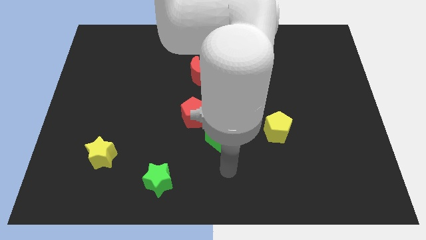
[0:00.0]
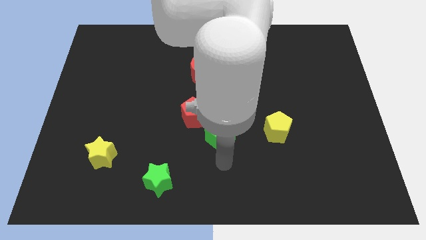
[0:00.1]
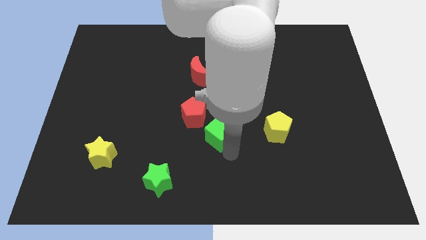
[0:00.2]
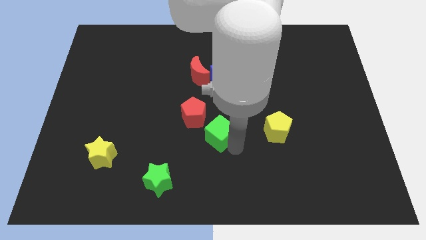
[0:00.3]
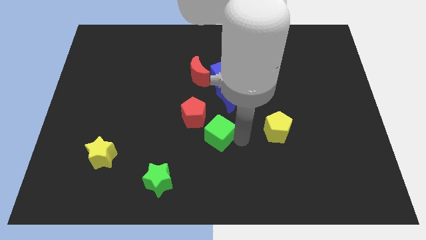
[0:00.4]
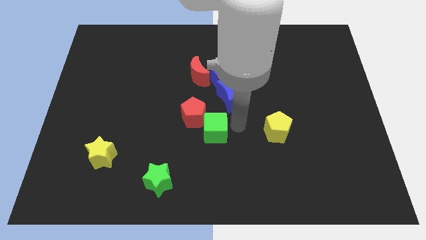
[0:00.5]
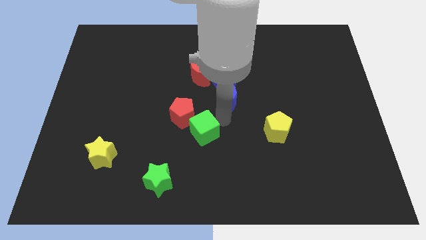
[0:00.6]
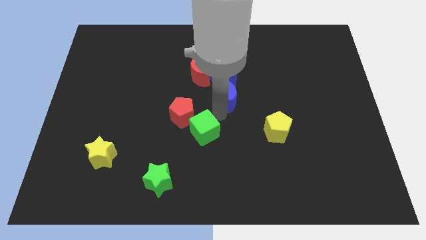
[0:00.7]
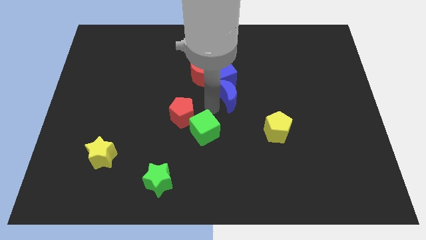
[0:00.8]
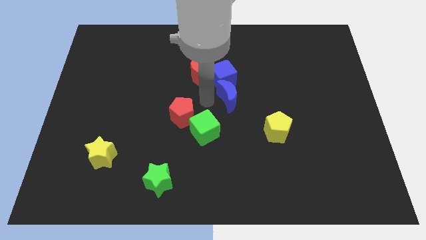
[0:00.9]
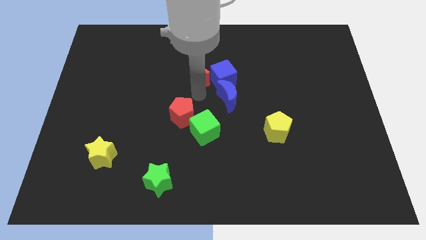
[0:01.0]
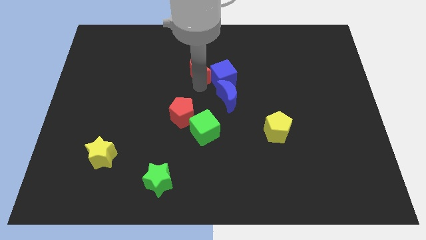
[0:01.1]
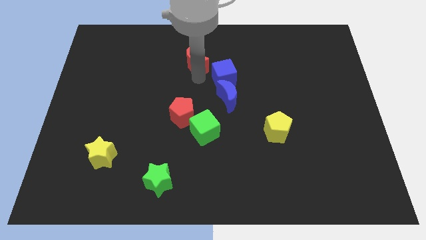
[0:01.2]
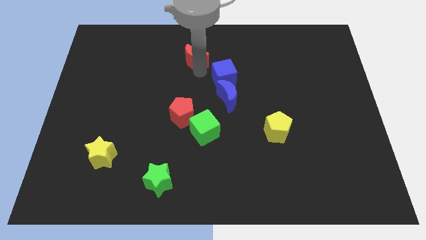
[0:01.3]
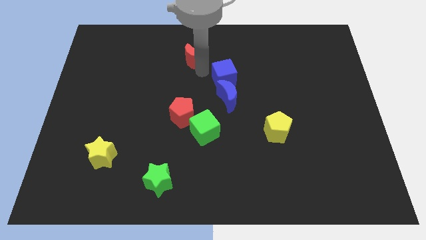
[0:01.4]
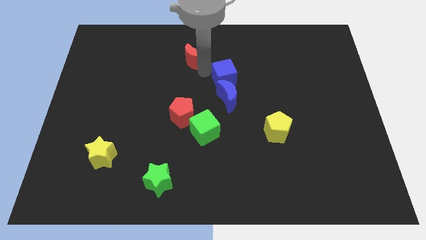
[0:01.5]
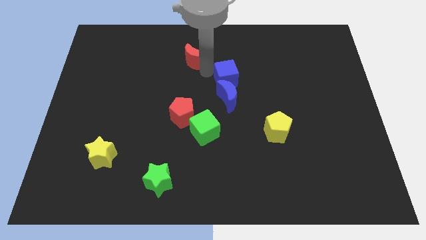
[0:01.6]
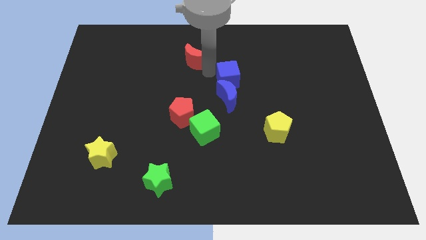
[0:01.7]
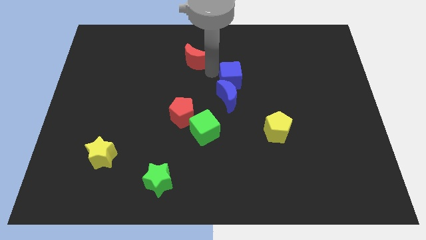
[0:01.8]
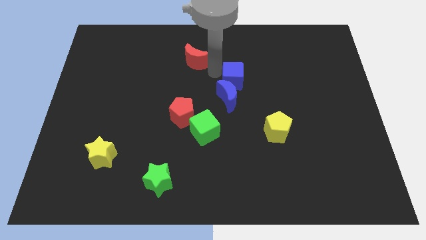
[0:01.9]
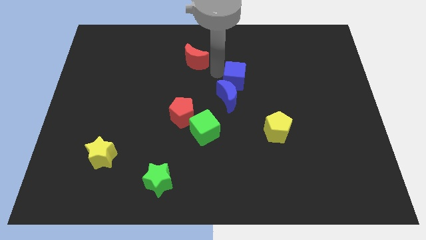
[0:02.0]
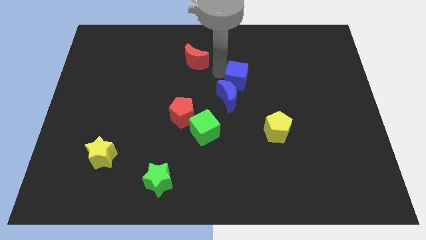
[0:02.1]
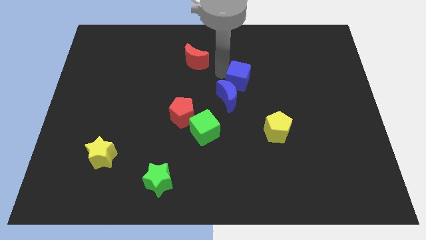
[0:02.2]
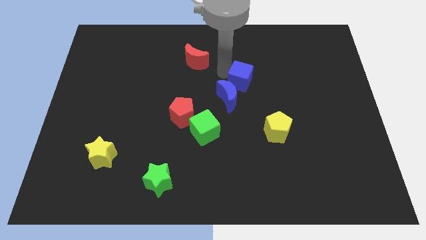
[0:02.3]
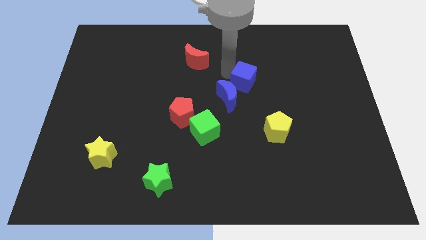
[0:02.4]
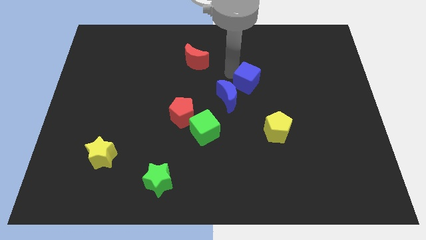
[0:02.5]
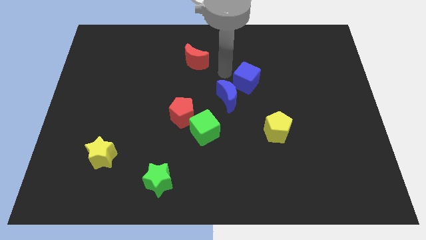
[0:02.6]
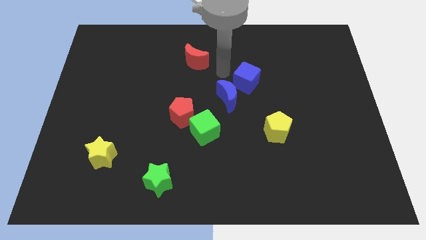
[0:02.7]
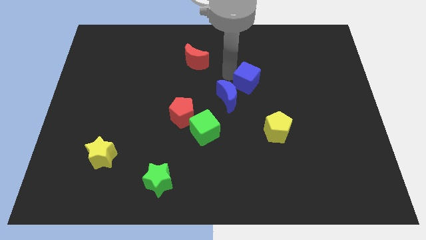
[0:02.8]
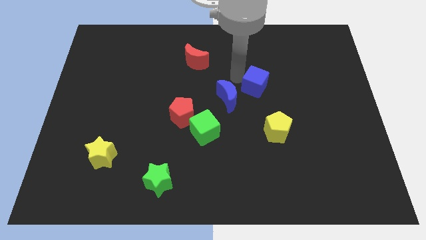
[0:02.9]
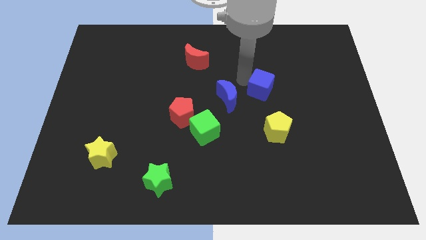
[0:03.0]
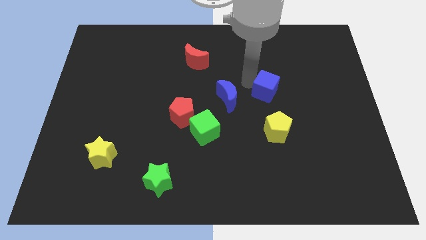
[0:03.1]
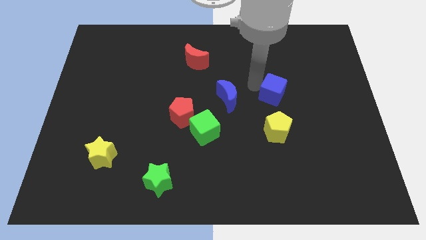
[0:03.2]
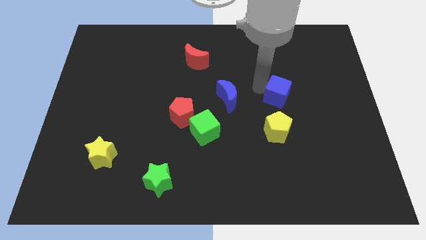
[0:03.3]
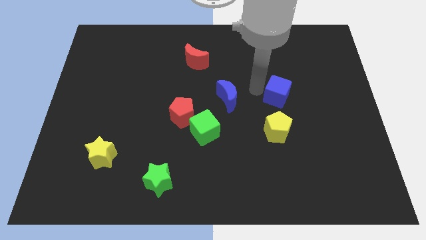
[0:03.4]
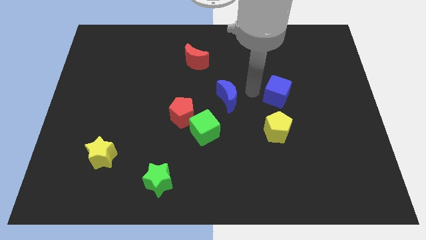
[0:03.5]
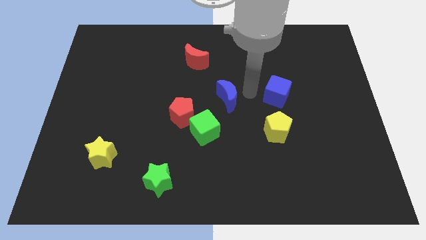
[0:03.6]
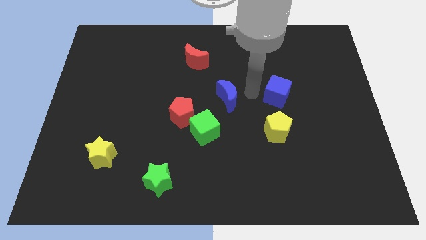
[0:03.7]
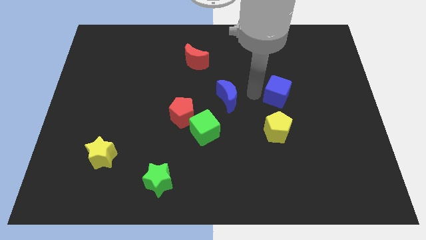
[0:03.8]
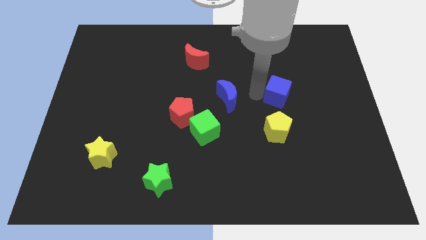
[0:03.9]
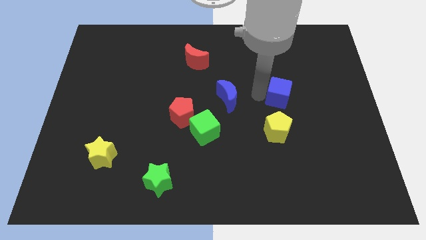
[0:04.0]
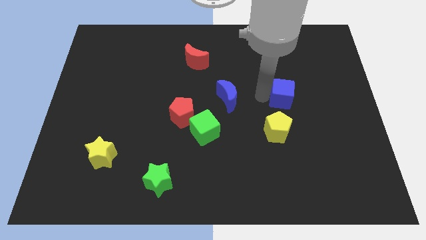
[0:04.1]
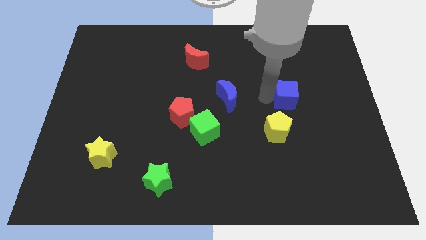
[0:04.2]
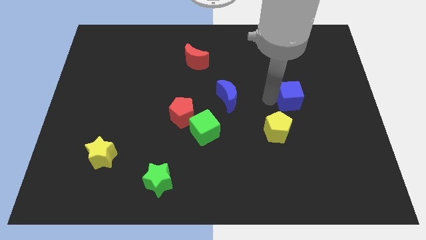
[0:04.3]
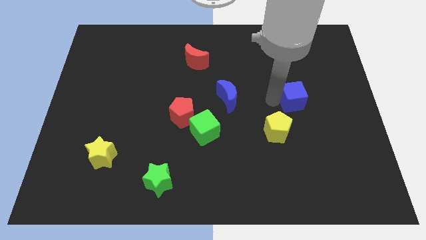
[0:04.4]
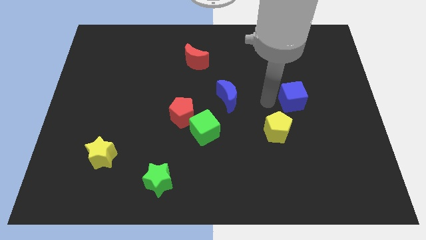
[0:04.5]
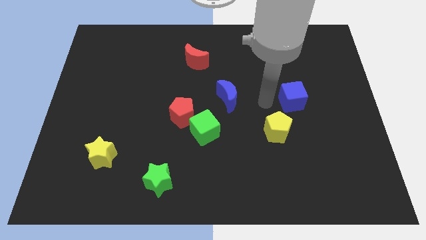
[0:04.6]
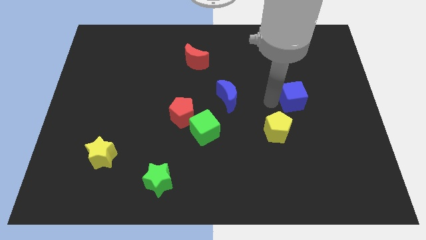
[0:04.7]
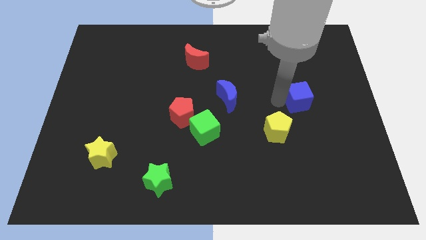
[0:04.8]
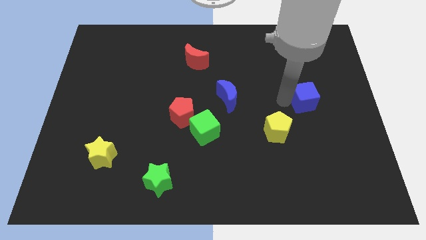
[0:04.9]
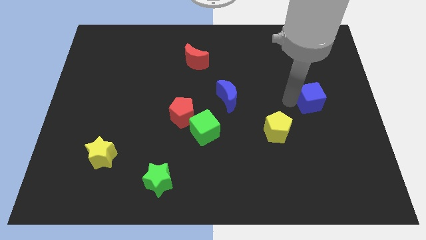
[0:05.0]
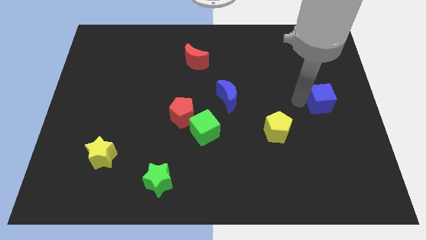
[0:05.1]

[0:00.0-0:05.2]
push the blue cube to the center right

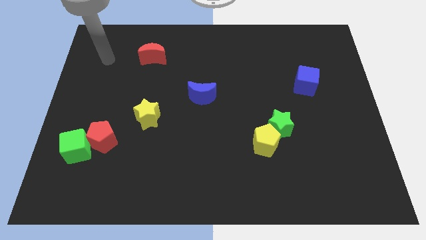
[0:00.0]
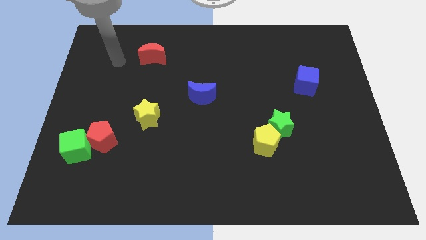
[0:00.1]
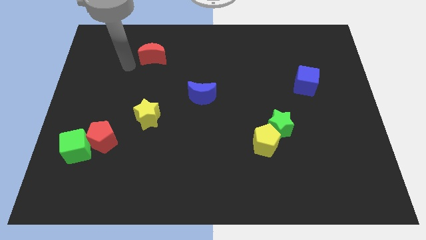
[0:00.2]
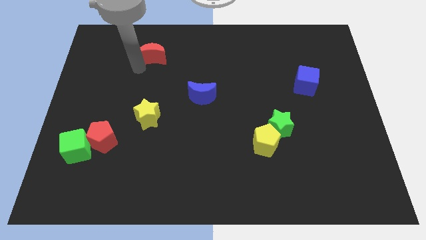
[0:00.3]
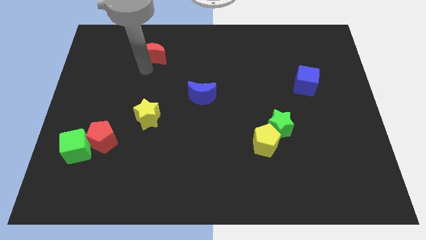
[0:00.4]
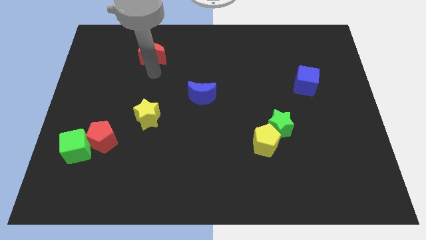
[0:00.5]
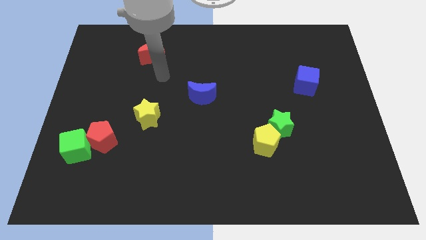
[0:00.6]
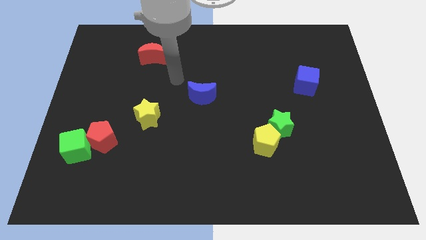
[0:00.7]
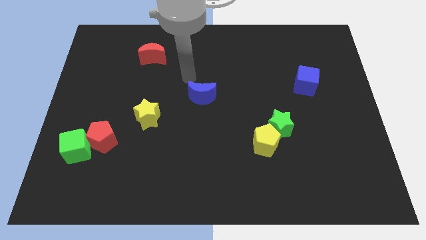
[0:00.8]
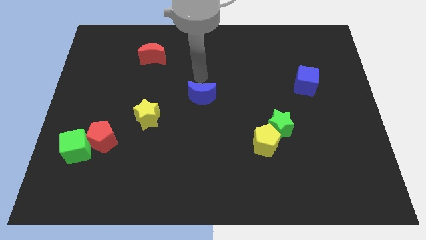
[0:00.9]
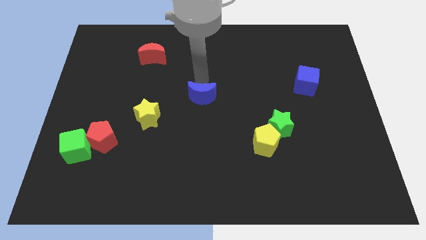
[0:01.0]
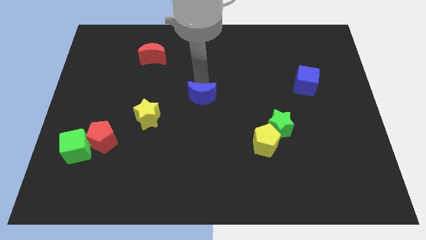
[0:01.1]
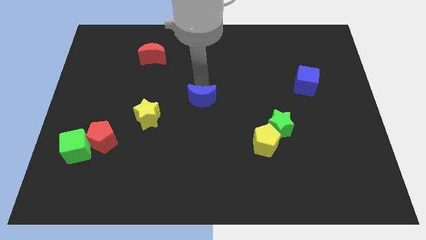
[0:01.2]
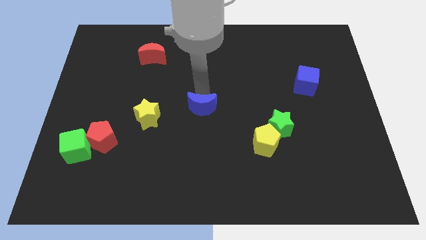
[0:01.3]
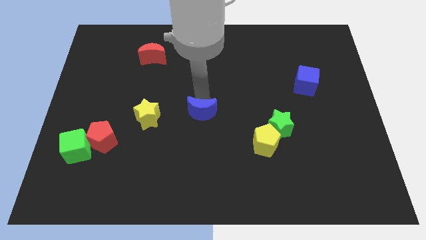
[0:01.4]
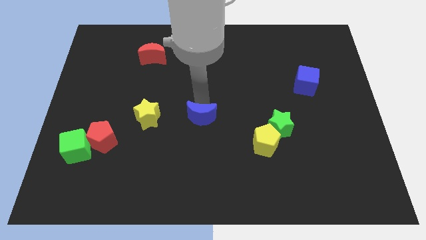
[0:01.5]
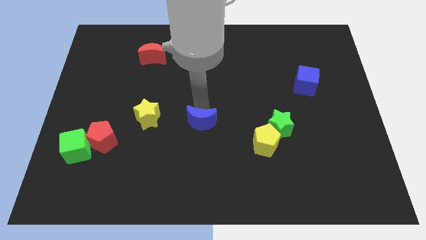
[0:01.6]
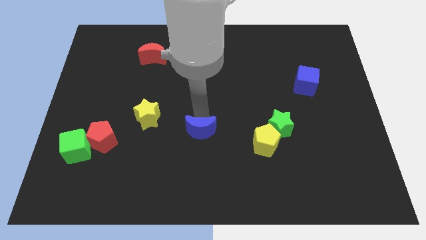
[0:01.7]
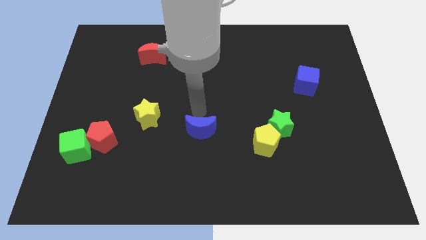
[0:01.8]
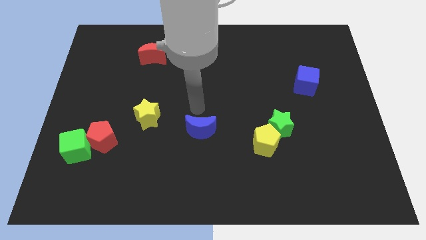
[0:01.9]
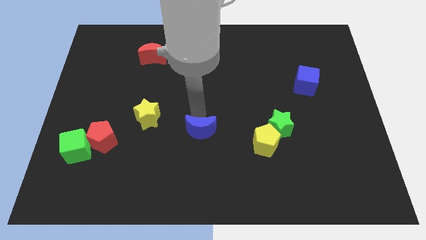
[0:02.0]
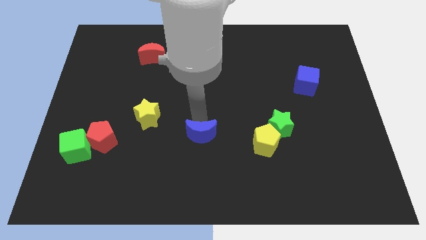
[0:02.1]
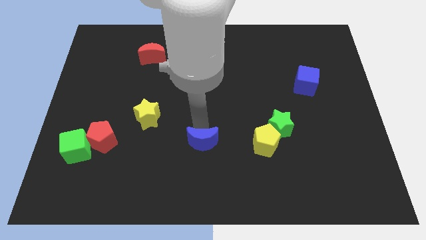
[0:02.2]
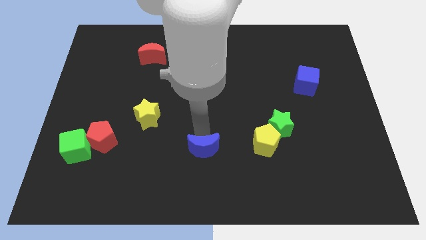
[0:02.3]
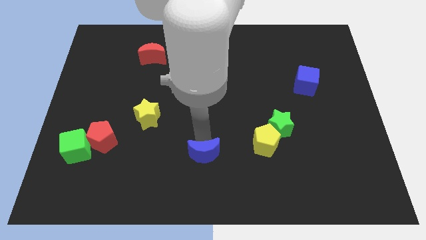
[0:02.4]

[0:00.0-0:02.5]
move the blue moon to the bottom
